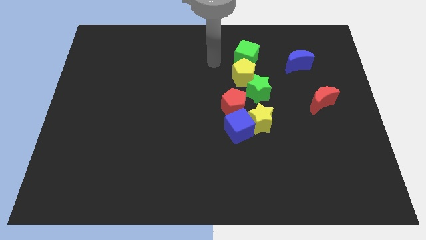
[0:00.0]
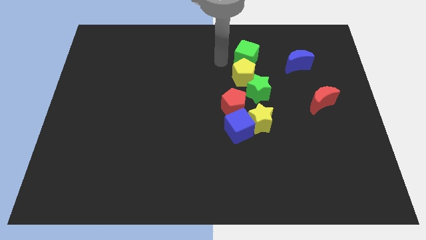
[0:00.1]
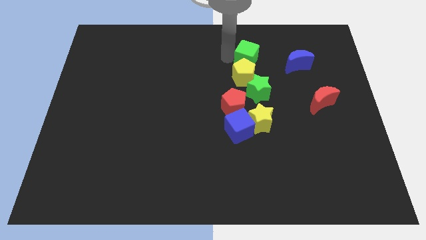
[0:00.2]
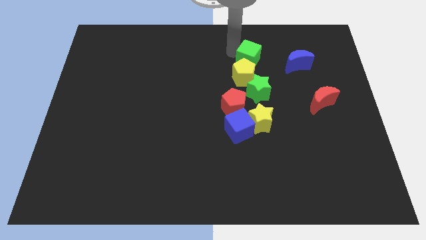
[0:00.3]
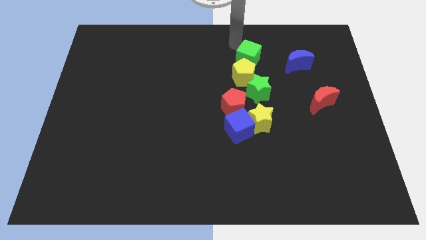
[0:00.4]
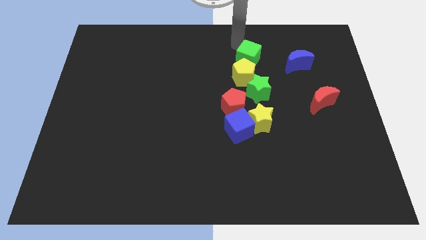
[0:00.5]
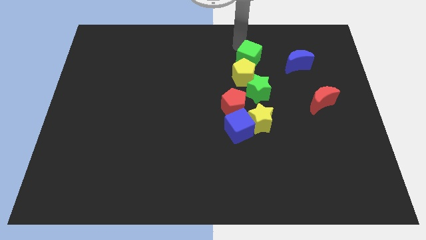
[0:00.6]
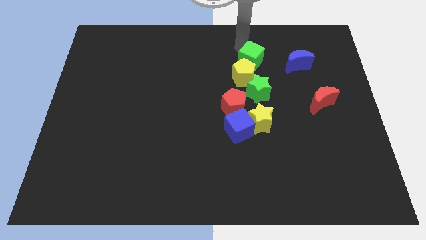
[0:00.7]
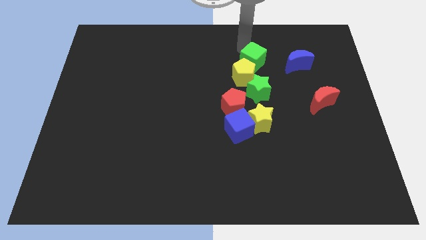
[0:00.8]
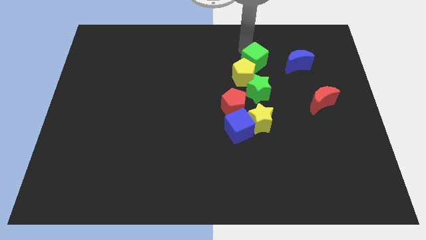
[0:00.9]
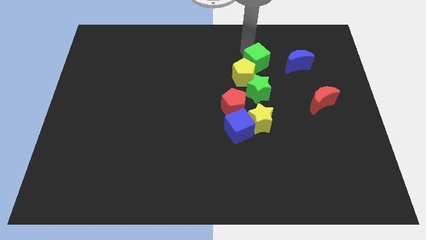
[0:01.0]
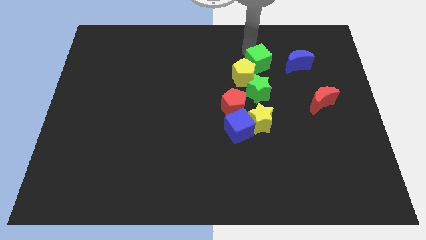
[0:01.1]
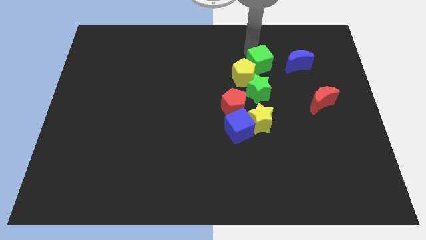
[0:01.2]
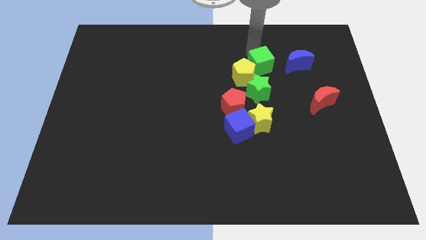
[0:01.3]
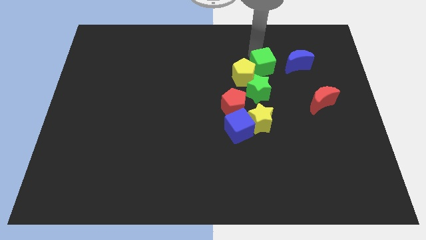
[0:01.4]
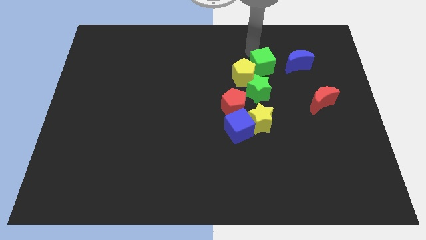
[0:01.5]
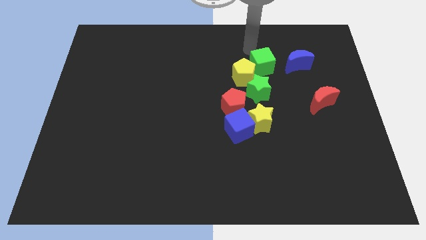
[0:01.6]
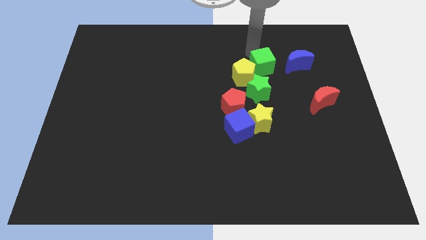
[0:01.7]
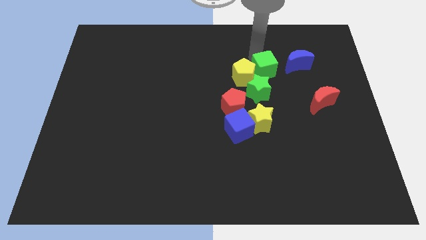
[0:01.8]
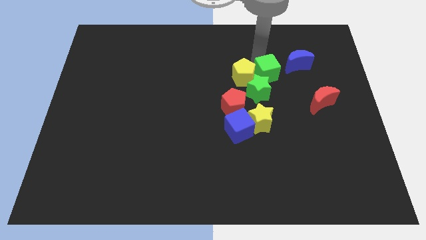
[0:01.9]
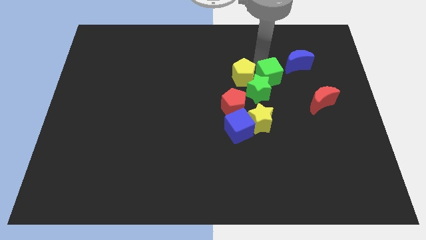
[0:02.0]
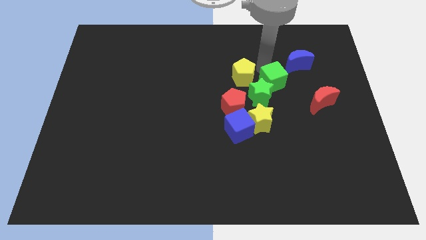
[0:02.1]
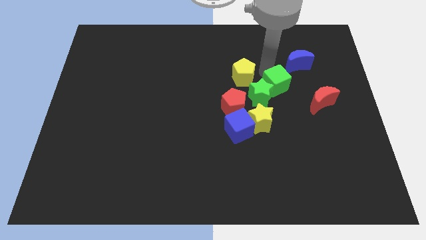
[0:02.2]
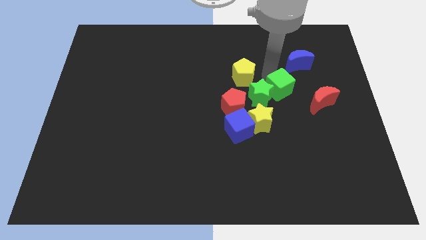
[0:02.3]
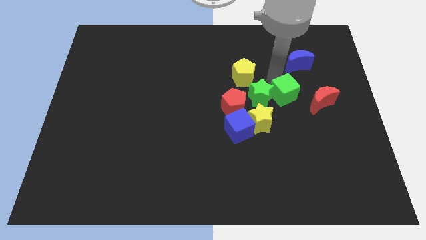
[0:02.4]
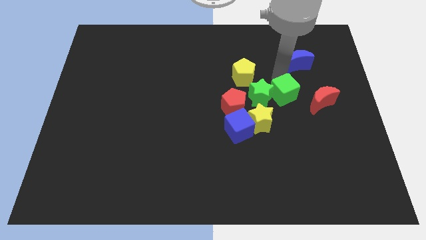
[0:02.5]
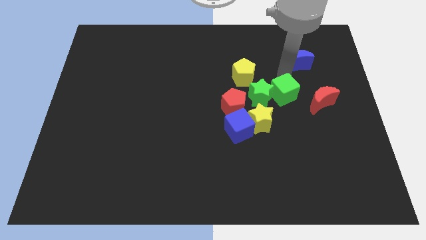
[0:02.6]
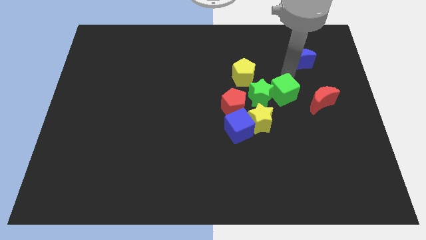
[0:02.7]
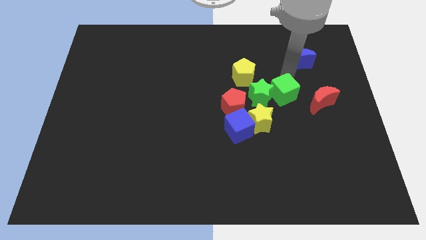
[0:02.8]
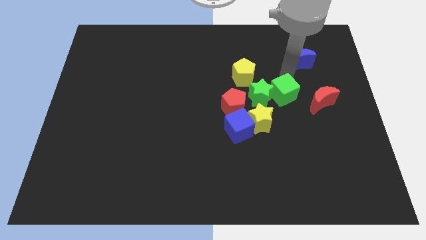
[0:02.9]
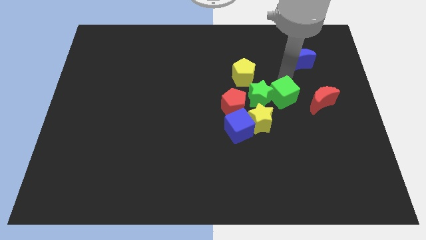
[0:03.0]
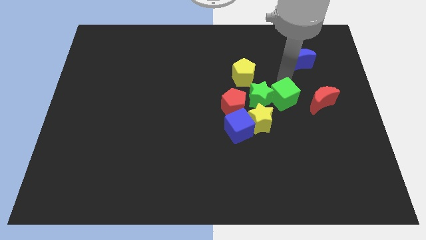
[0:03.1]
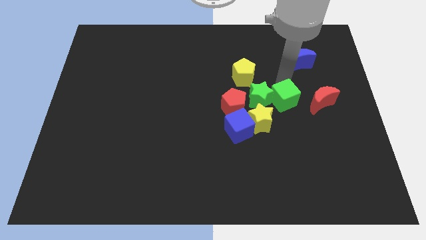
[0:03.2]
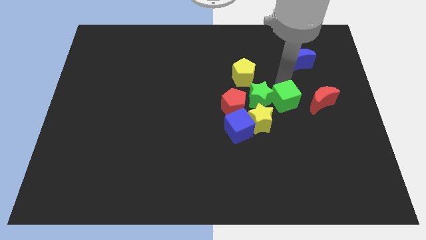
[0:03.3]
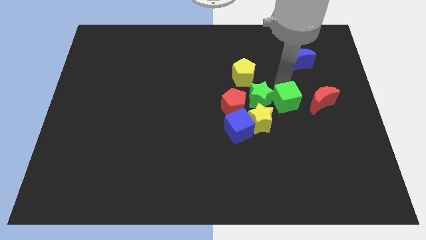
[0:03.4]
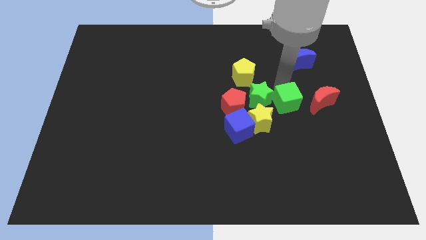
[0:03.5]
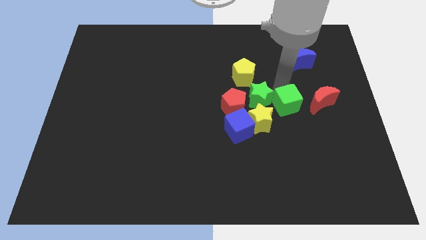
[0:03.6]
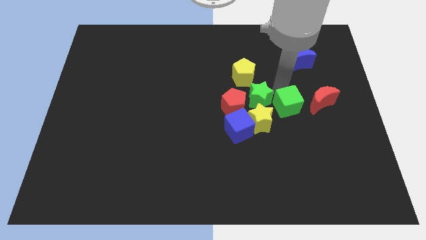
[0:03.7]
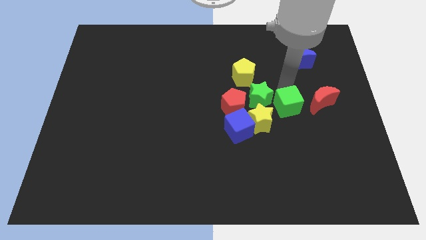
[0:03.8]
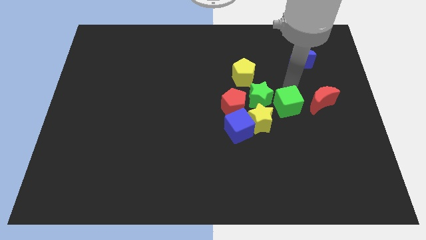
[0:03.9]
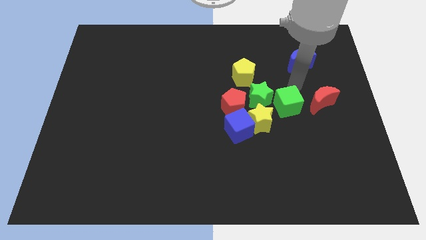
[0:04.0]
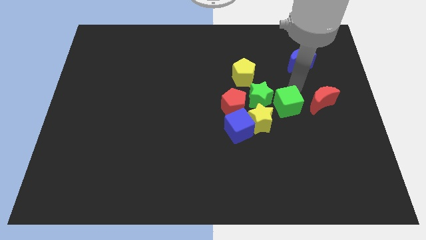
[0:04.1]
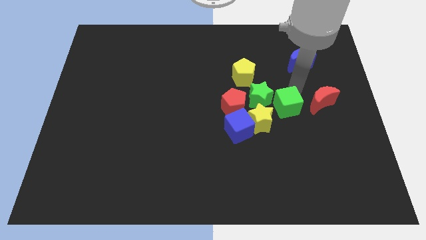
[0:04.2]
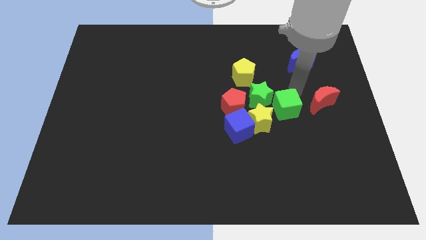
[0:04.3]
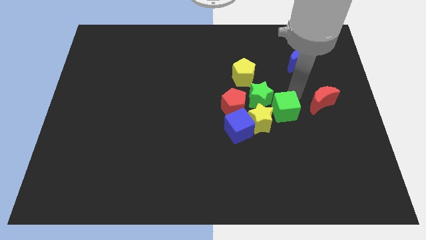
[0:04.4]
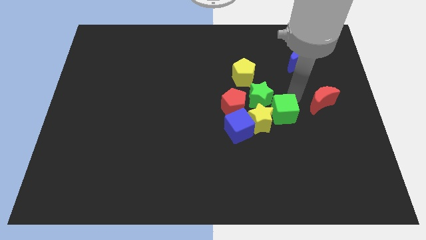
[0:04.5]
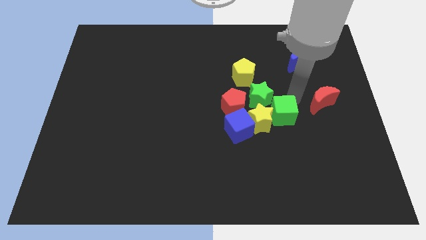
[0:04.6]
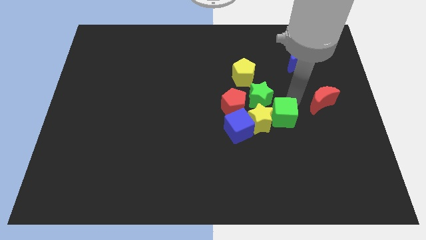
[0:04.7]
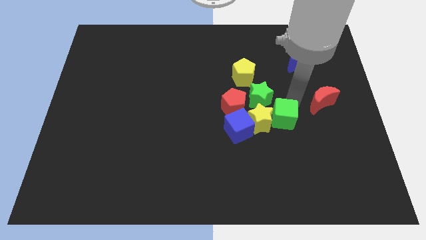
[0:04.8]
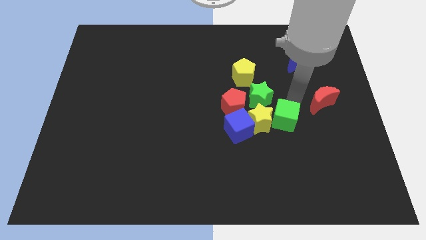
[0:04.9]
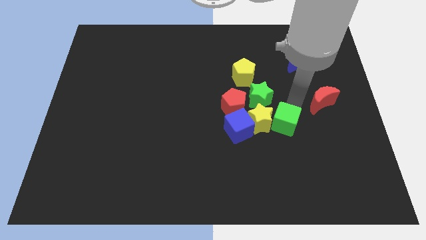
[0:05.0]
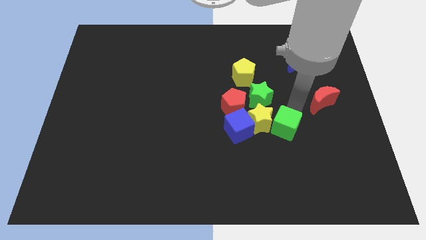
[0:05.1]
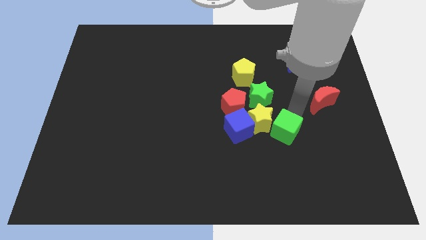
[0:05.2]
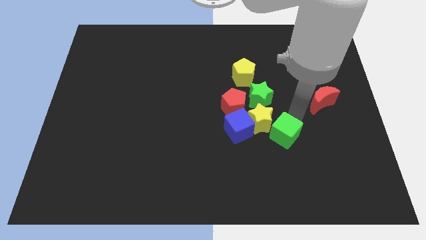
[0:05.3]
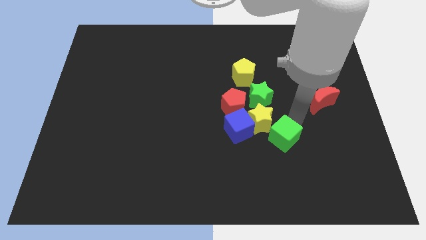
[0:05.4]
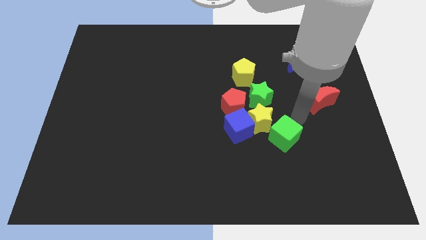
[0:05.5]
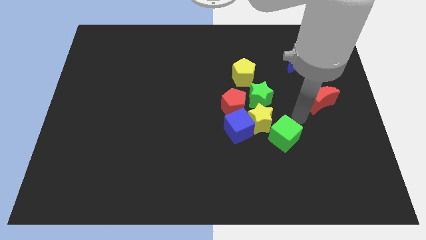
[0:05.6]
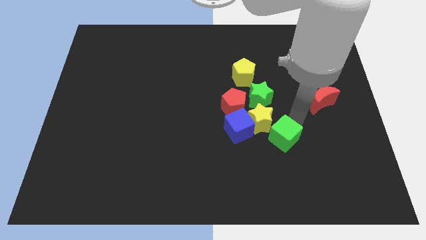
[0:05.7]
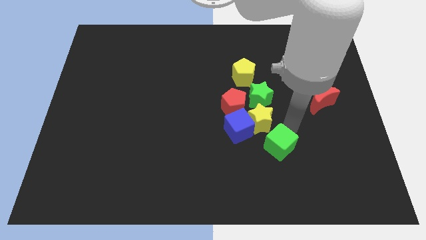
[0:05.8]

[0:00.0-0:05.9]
push the green cube to the bottom of the yellow star

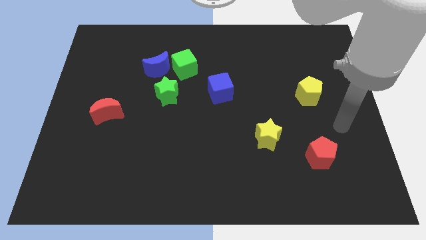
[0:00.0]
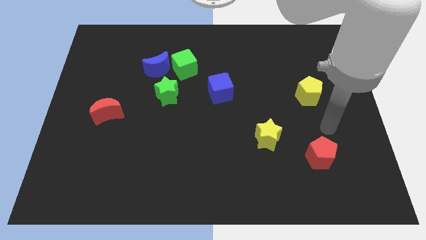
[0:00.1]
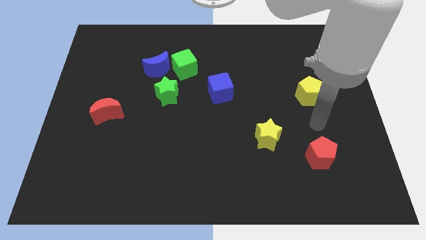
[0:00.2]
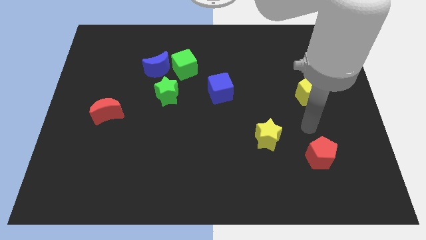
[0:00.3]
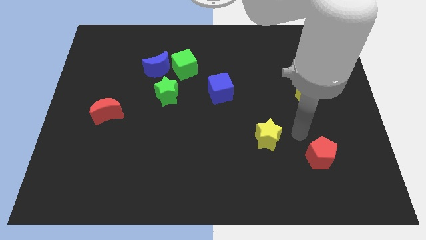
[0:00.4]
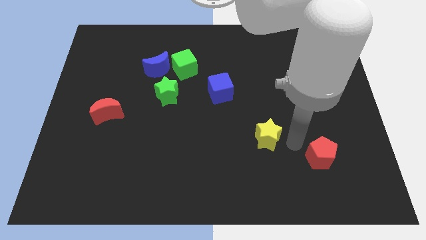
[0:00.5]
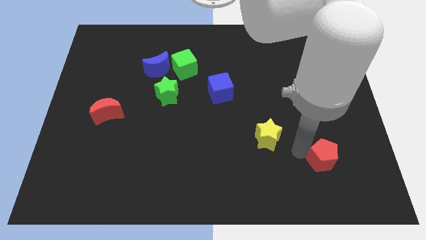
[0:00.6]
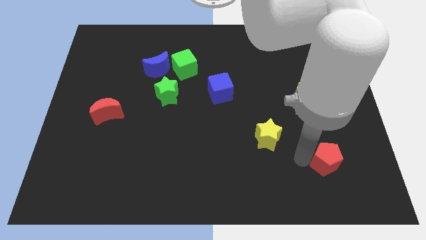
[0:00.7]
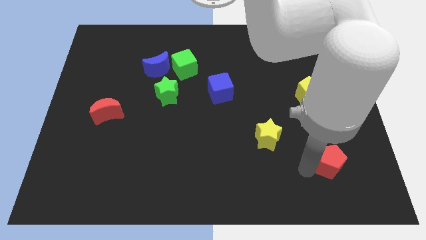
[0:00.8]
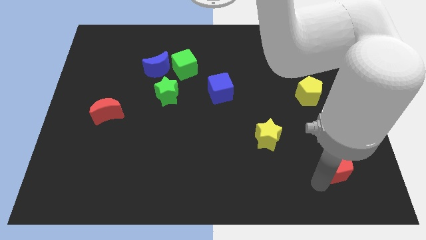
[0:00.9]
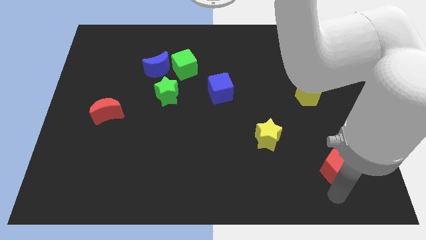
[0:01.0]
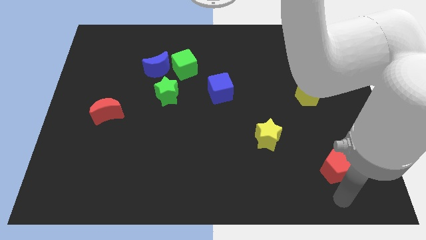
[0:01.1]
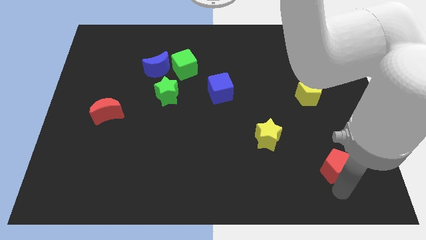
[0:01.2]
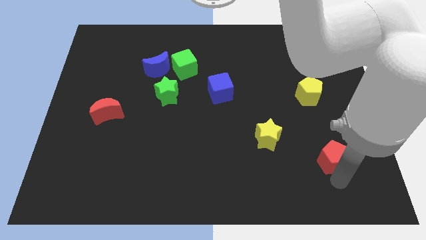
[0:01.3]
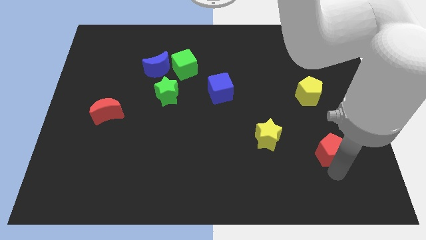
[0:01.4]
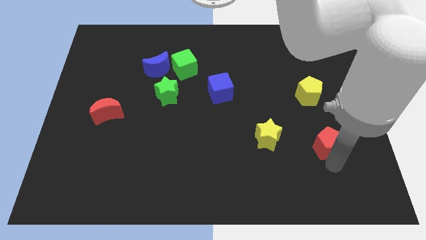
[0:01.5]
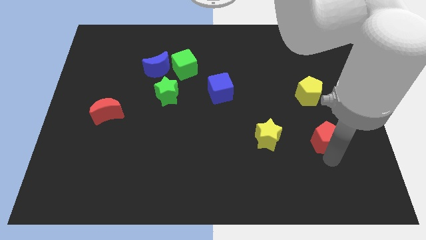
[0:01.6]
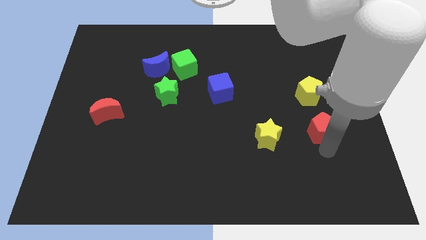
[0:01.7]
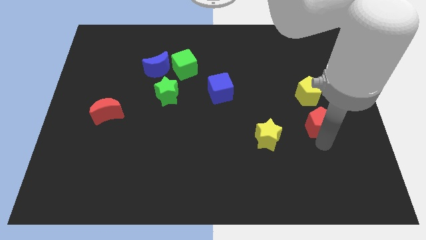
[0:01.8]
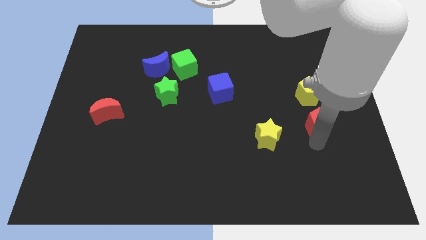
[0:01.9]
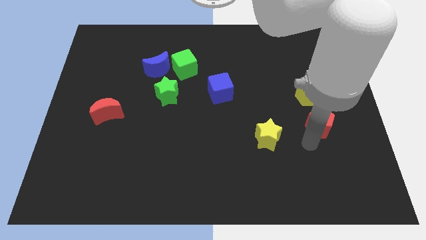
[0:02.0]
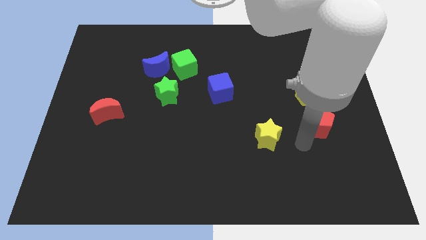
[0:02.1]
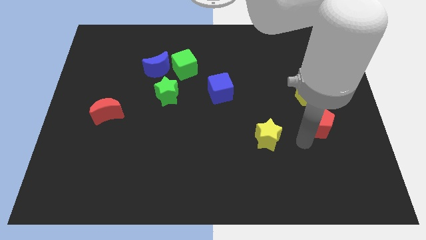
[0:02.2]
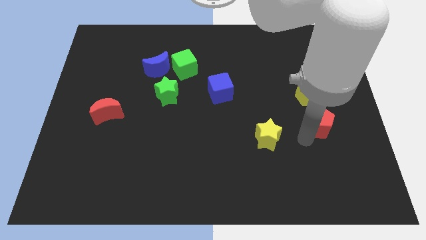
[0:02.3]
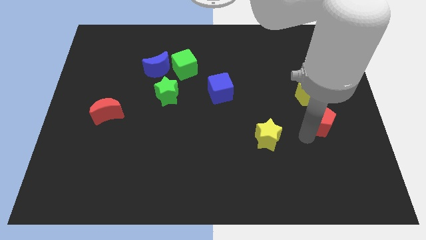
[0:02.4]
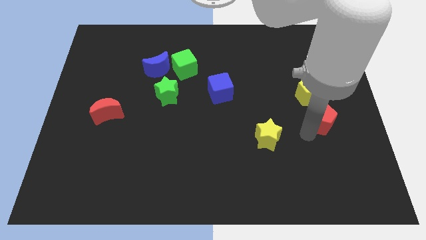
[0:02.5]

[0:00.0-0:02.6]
slide the red pentagon to the bottom right of the yellow pentagon
